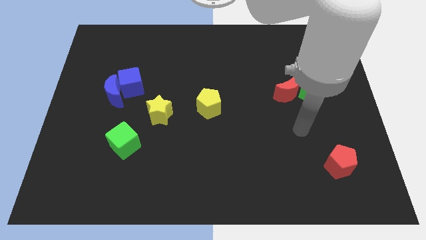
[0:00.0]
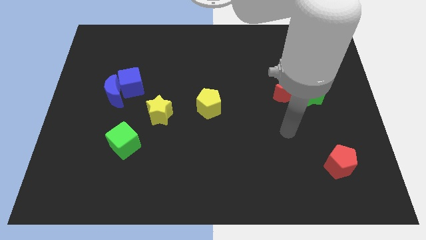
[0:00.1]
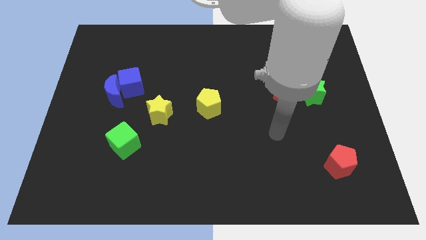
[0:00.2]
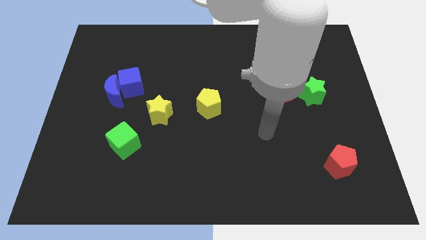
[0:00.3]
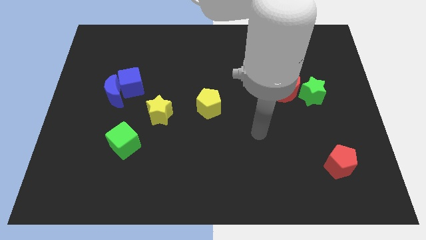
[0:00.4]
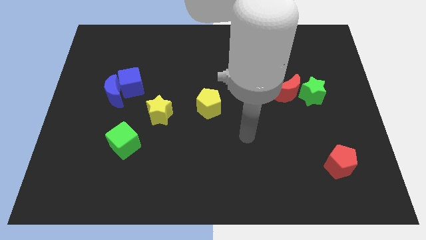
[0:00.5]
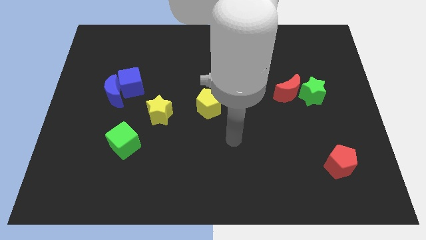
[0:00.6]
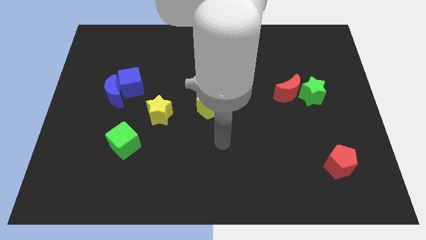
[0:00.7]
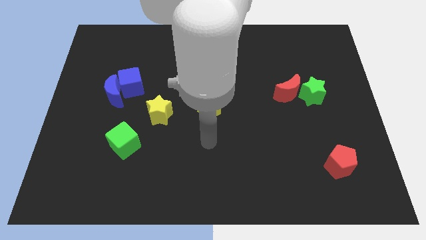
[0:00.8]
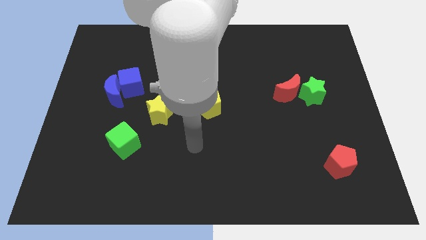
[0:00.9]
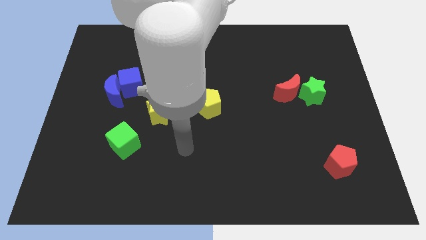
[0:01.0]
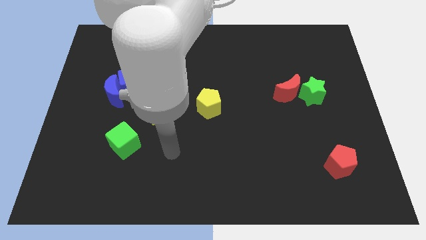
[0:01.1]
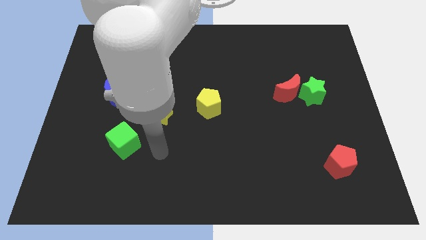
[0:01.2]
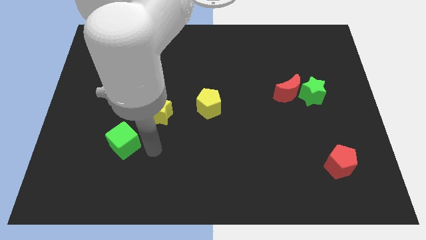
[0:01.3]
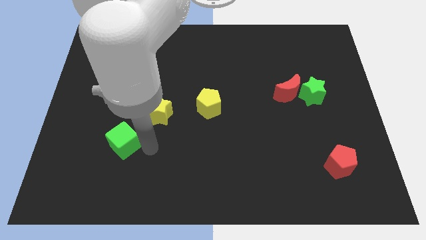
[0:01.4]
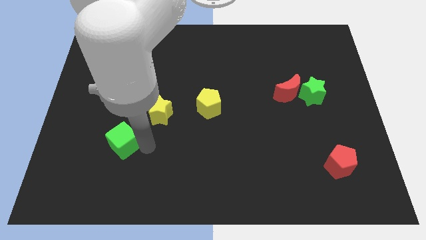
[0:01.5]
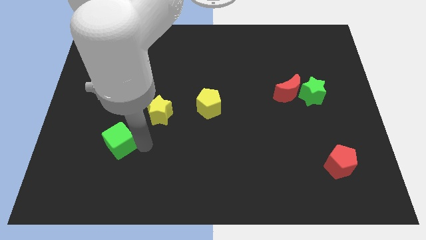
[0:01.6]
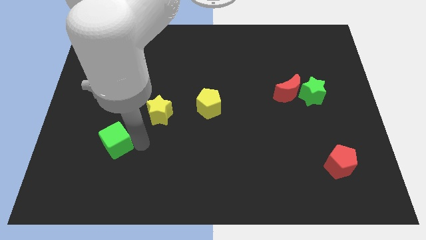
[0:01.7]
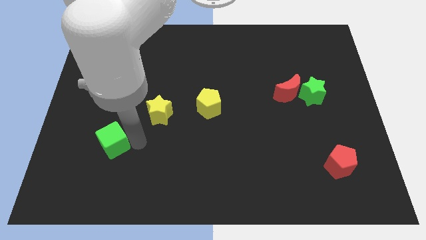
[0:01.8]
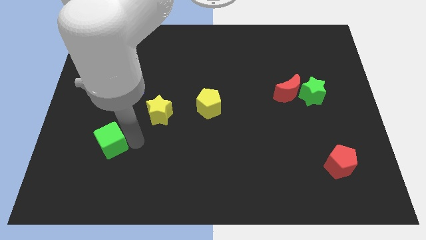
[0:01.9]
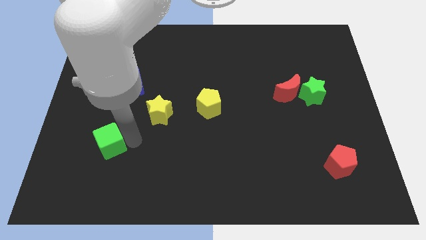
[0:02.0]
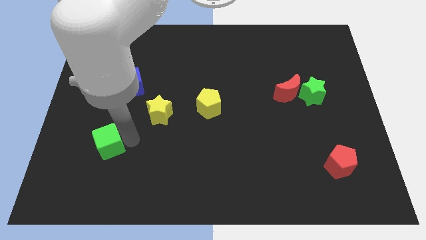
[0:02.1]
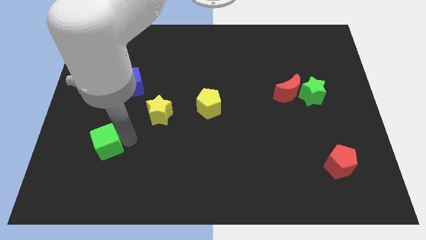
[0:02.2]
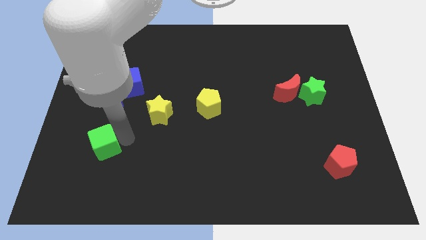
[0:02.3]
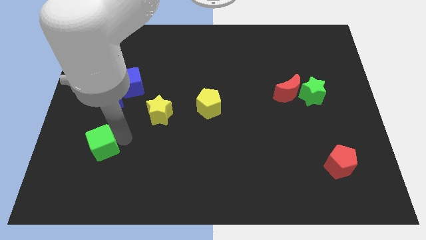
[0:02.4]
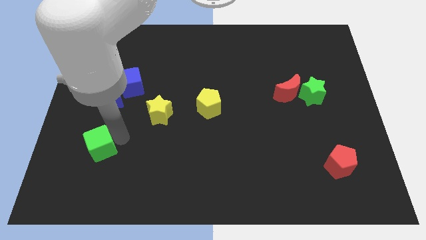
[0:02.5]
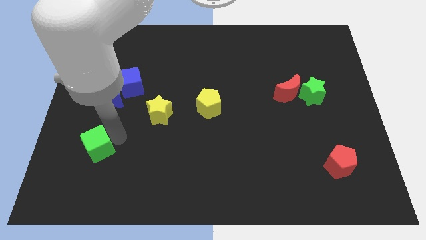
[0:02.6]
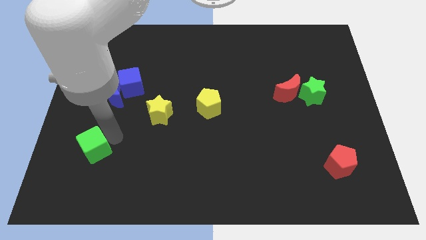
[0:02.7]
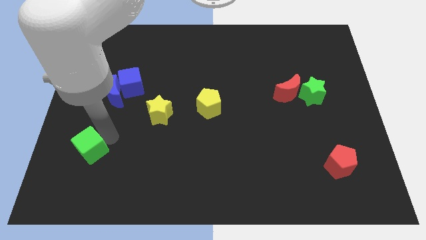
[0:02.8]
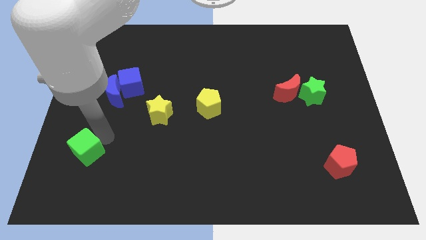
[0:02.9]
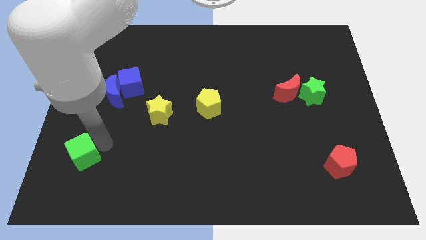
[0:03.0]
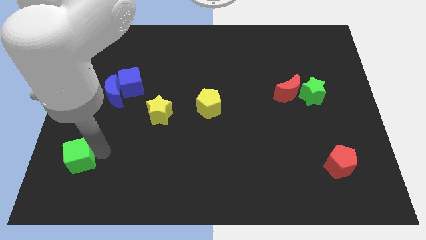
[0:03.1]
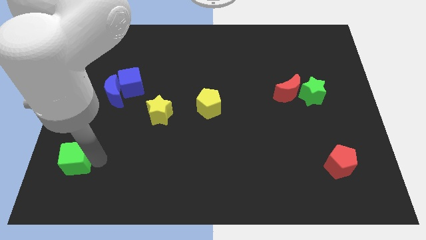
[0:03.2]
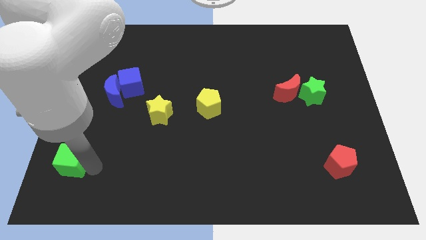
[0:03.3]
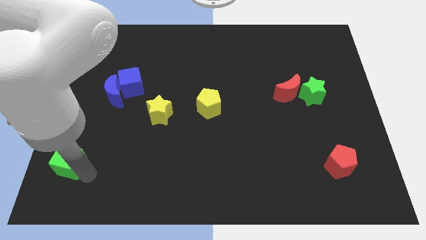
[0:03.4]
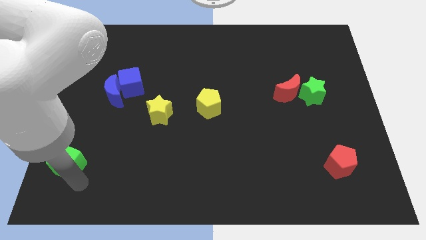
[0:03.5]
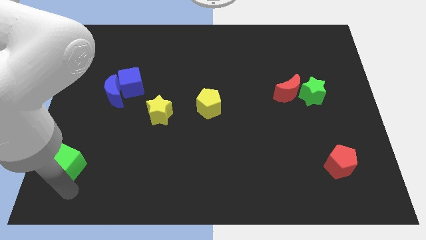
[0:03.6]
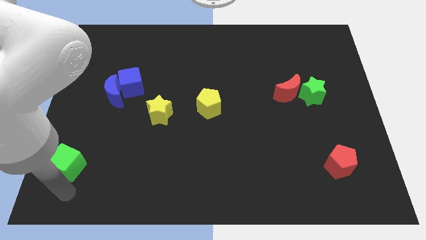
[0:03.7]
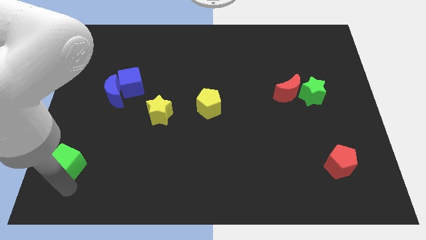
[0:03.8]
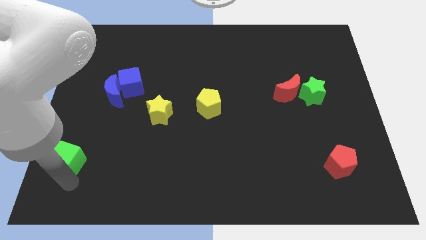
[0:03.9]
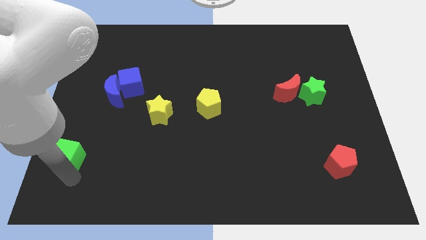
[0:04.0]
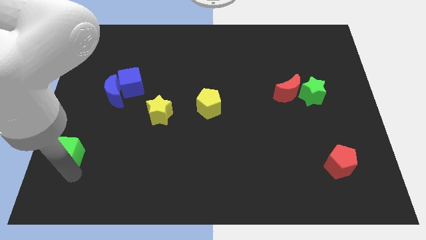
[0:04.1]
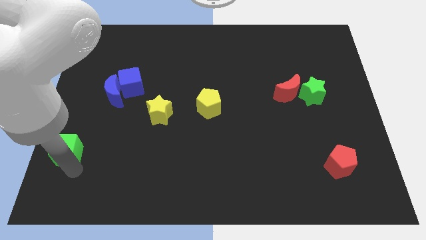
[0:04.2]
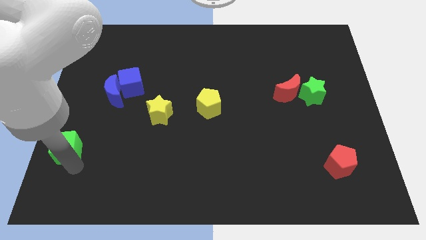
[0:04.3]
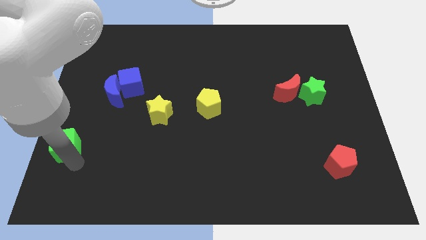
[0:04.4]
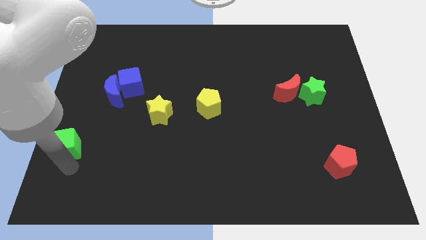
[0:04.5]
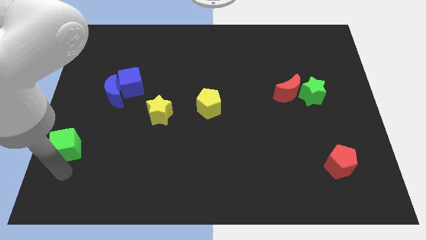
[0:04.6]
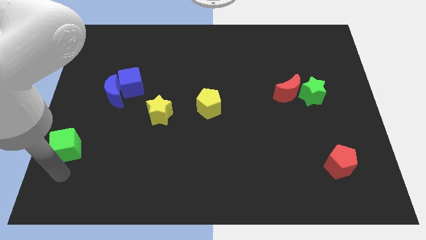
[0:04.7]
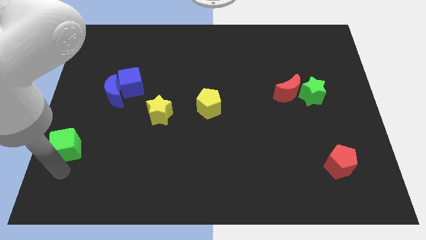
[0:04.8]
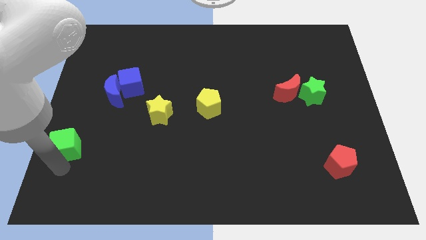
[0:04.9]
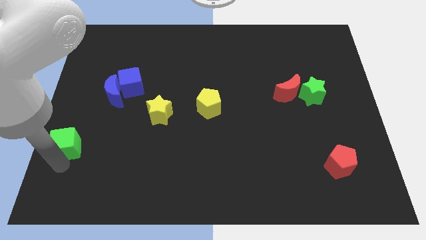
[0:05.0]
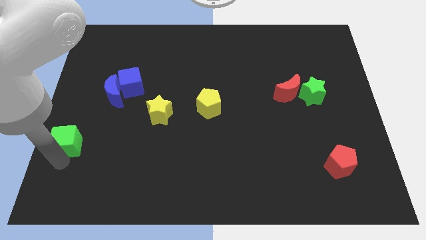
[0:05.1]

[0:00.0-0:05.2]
move the green cube to the left side
